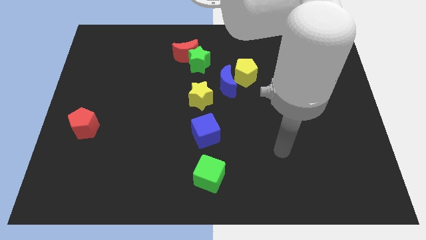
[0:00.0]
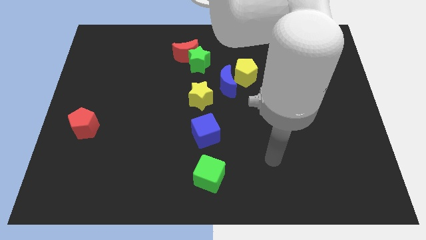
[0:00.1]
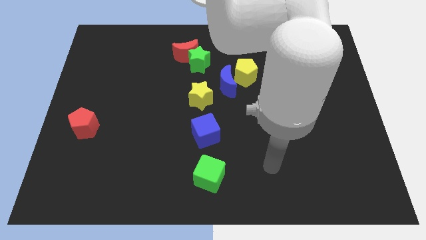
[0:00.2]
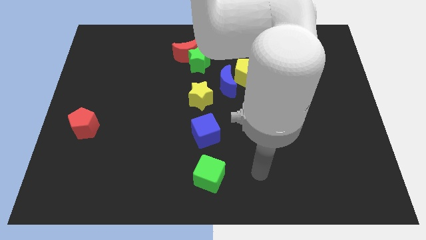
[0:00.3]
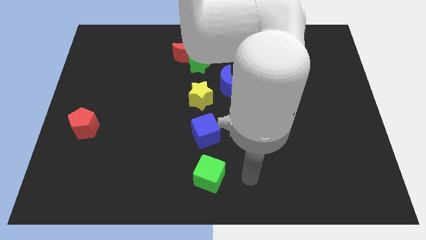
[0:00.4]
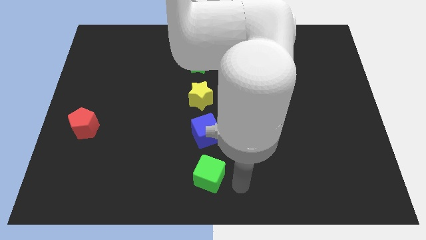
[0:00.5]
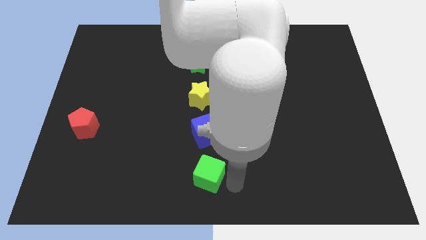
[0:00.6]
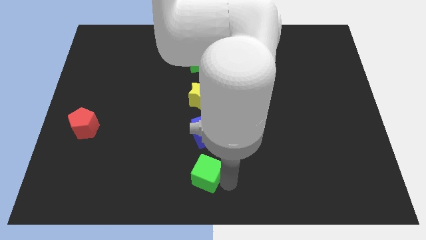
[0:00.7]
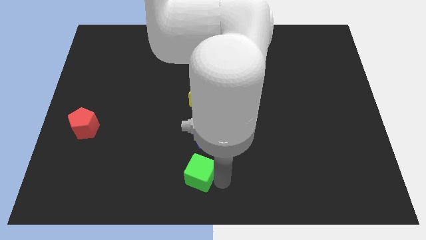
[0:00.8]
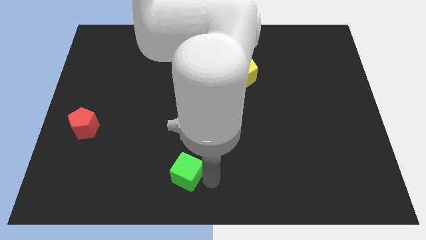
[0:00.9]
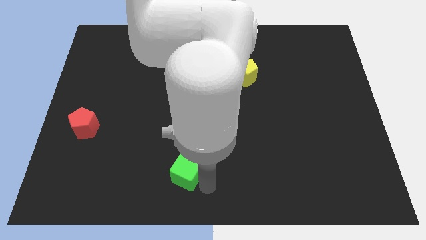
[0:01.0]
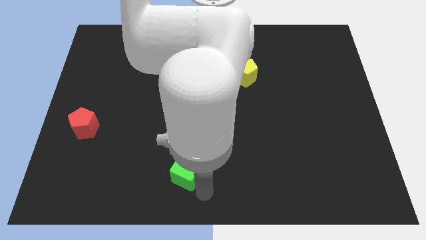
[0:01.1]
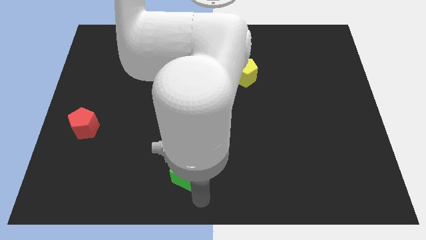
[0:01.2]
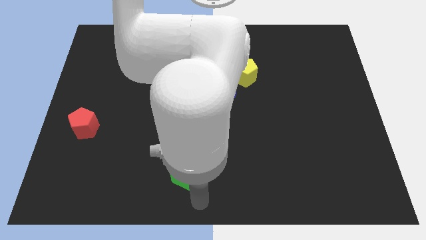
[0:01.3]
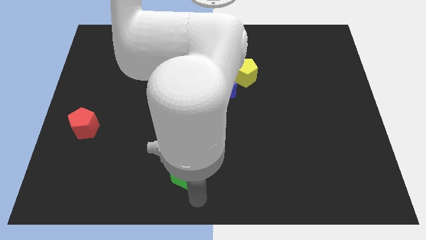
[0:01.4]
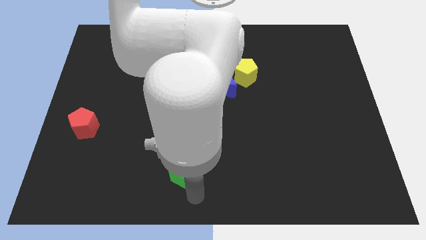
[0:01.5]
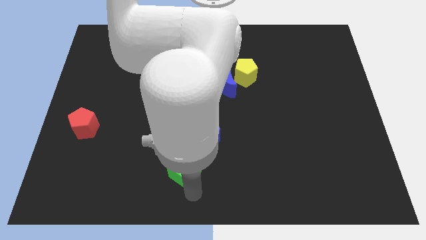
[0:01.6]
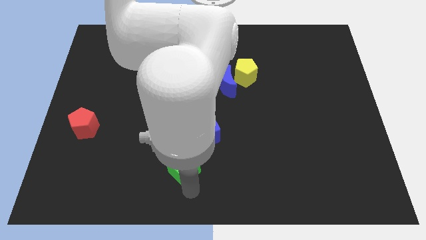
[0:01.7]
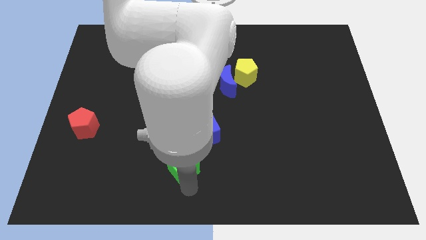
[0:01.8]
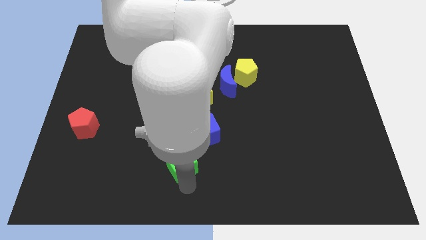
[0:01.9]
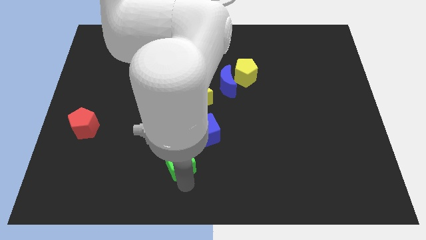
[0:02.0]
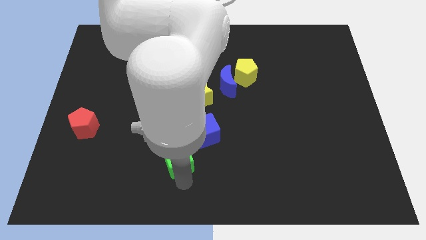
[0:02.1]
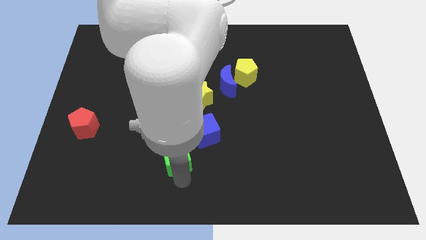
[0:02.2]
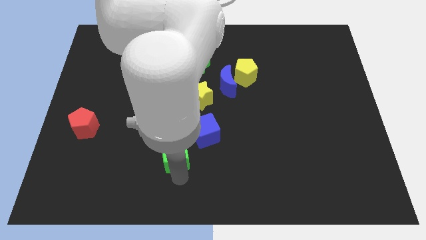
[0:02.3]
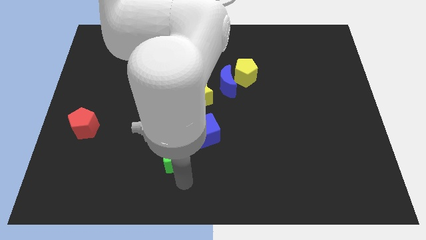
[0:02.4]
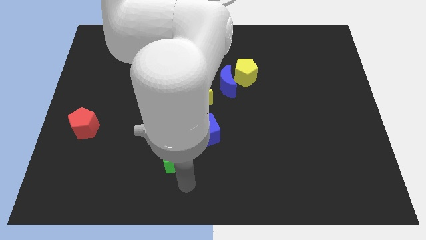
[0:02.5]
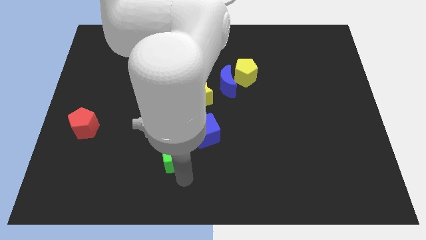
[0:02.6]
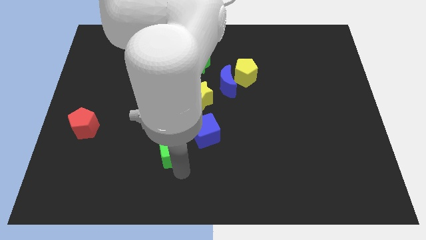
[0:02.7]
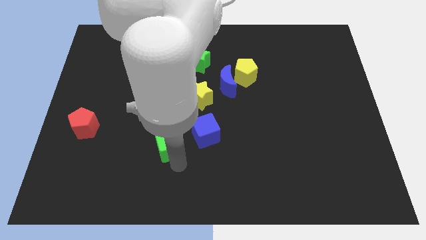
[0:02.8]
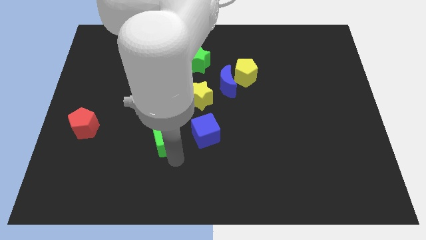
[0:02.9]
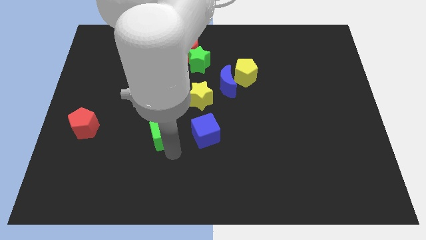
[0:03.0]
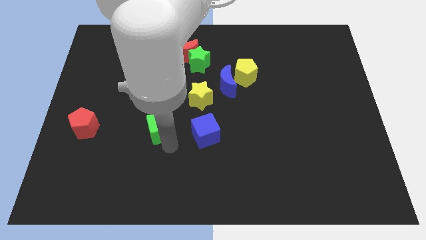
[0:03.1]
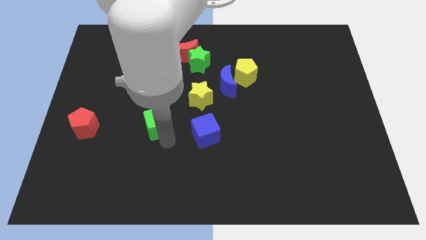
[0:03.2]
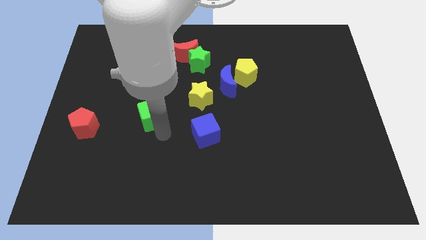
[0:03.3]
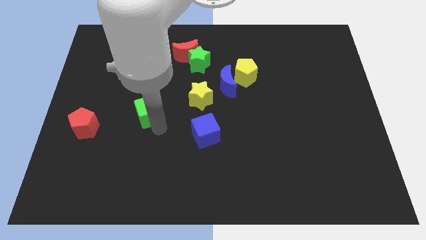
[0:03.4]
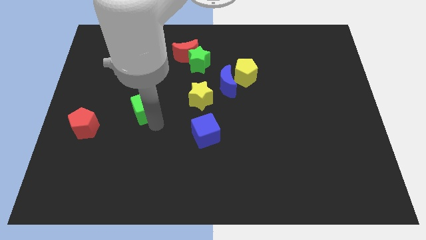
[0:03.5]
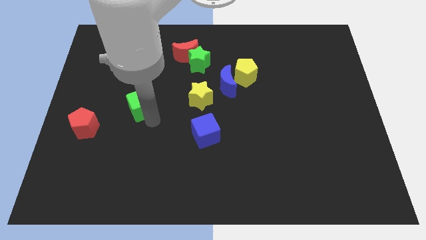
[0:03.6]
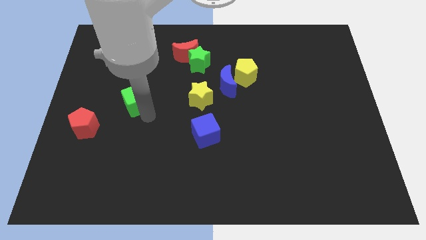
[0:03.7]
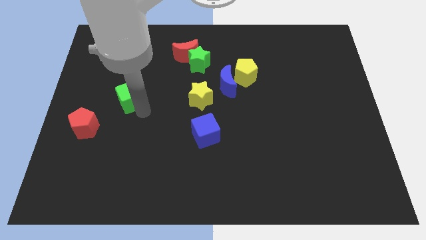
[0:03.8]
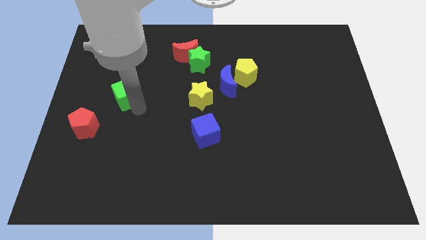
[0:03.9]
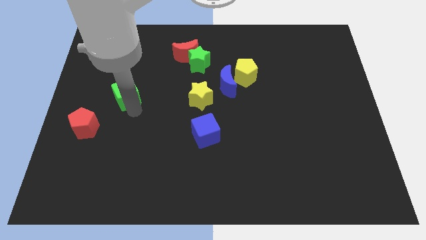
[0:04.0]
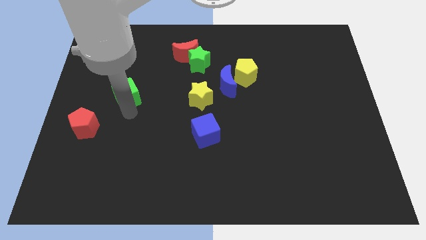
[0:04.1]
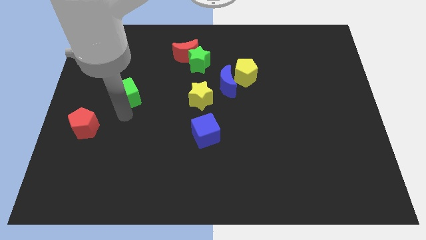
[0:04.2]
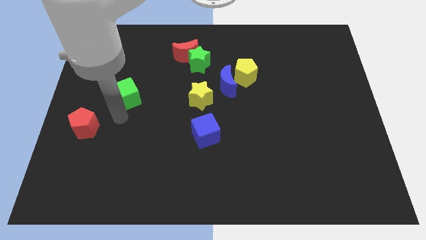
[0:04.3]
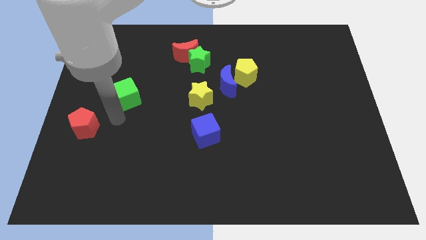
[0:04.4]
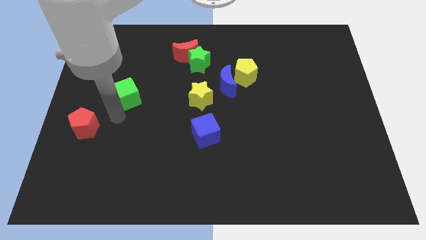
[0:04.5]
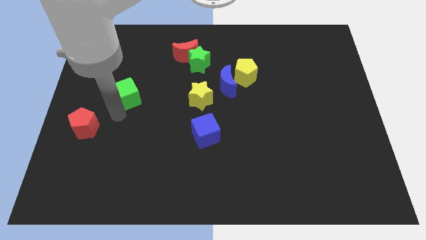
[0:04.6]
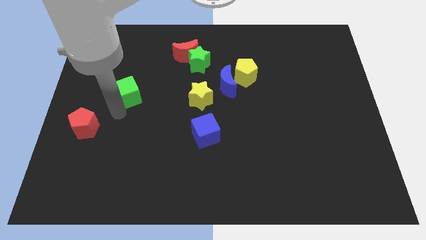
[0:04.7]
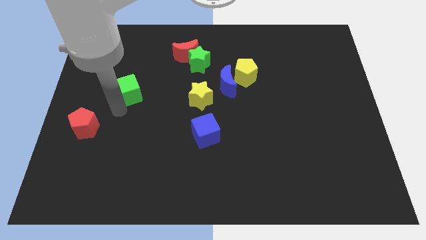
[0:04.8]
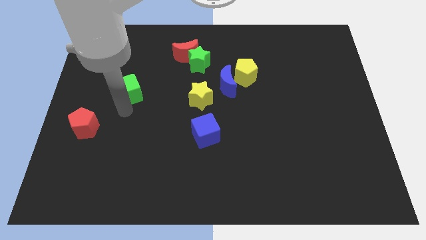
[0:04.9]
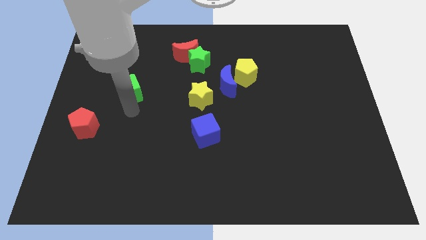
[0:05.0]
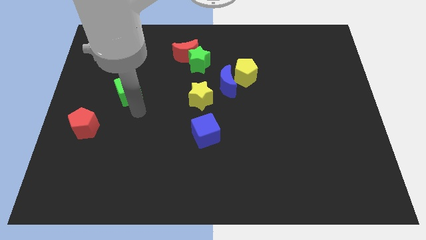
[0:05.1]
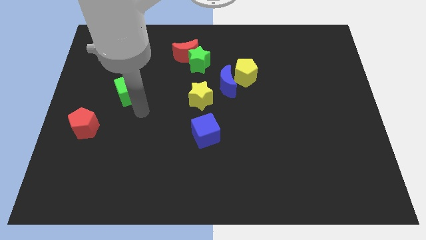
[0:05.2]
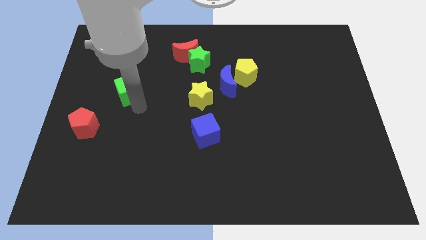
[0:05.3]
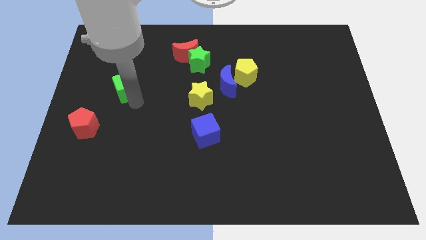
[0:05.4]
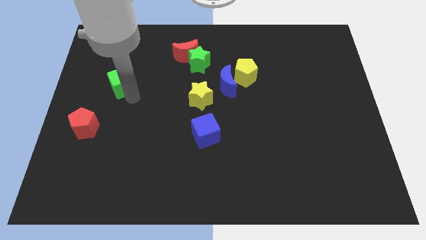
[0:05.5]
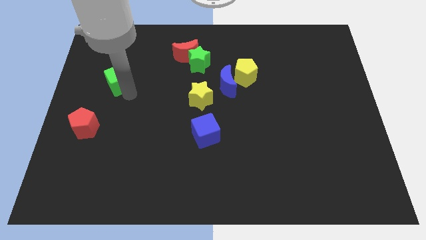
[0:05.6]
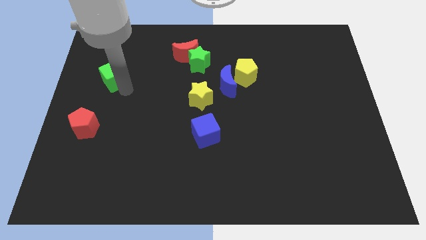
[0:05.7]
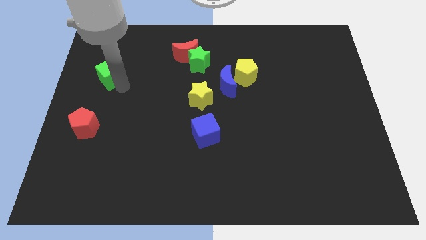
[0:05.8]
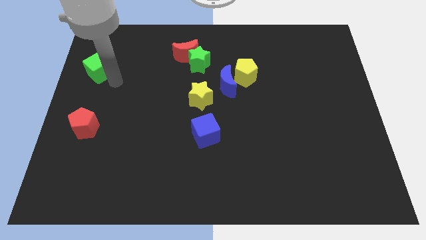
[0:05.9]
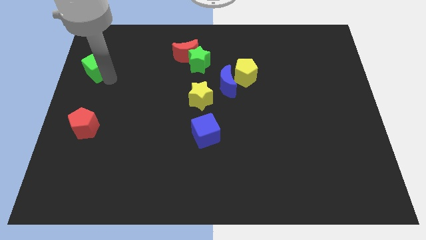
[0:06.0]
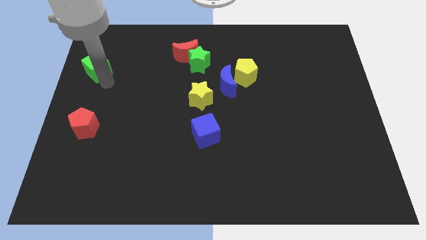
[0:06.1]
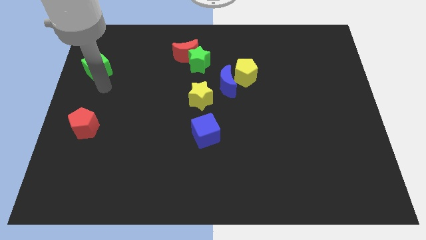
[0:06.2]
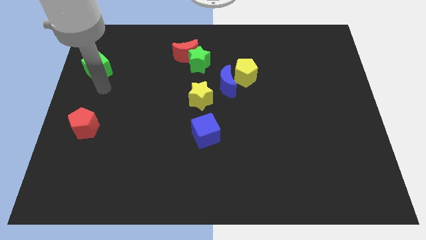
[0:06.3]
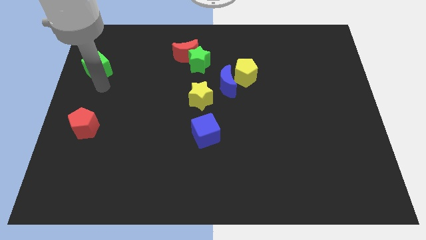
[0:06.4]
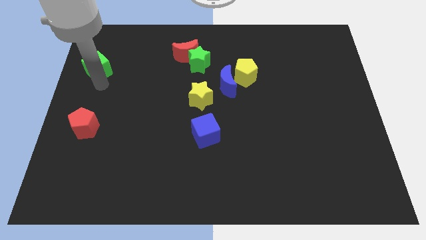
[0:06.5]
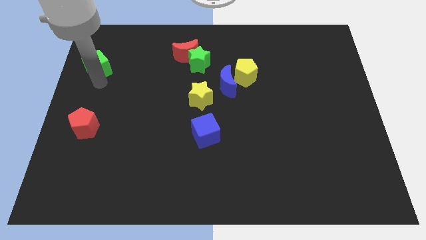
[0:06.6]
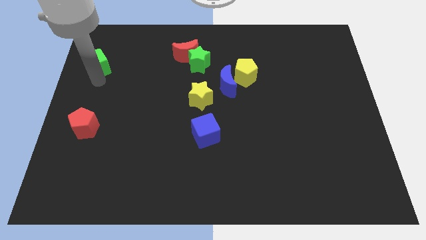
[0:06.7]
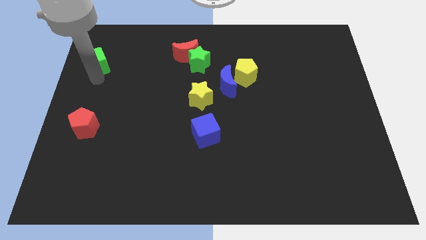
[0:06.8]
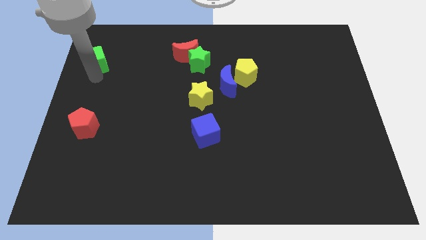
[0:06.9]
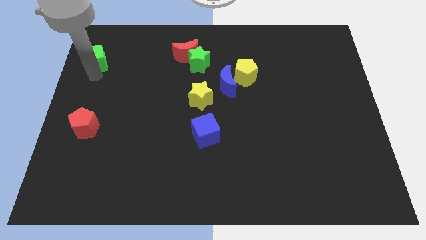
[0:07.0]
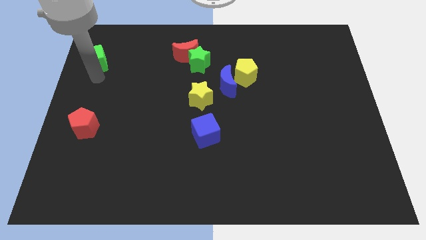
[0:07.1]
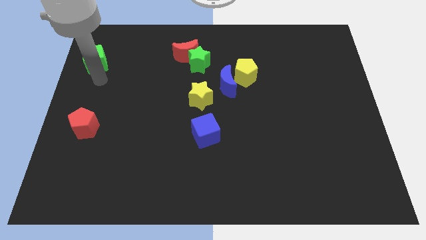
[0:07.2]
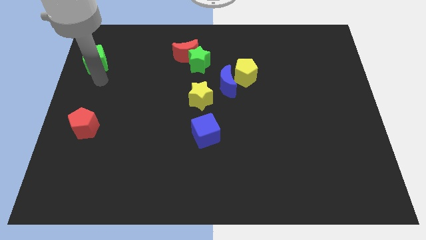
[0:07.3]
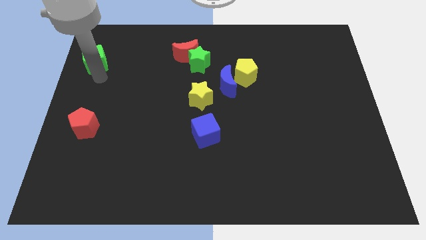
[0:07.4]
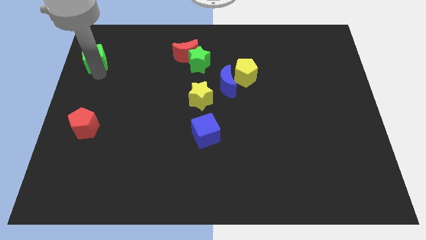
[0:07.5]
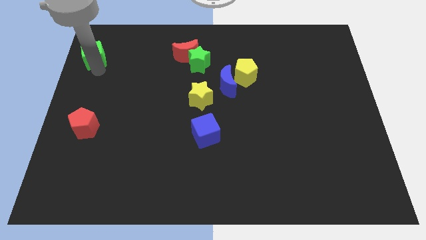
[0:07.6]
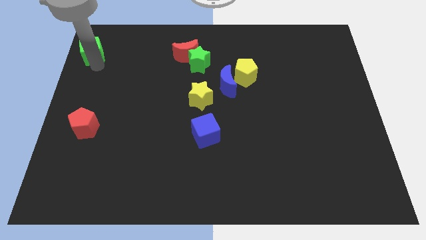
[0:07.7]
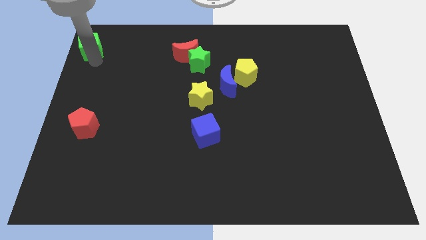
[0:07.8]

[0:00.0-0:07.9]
put the green cube to the top left of the board
